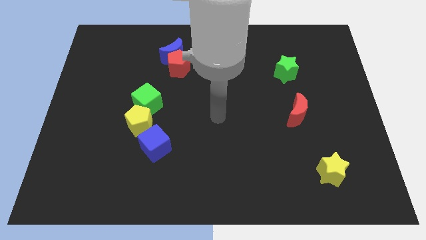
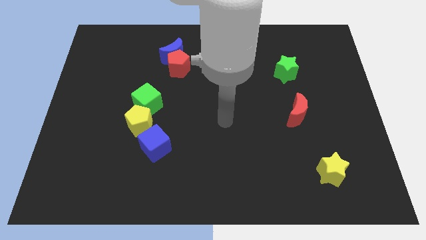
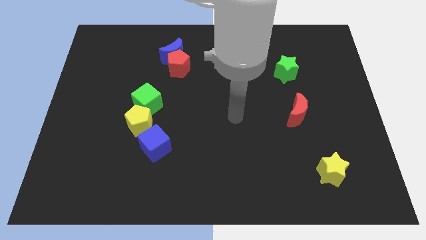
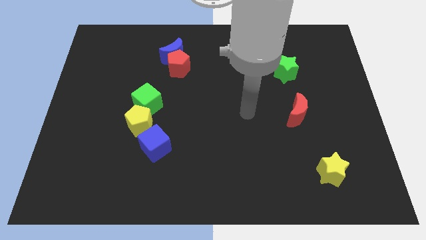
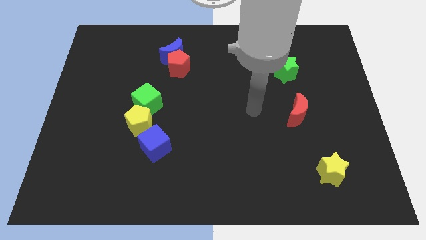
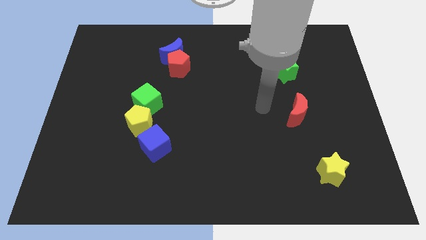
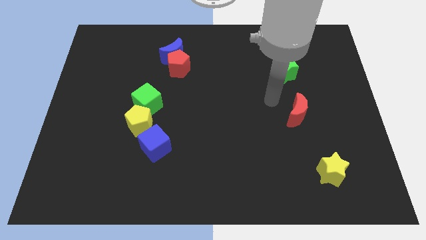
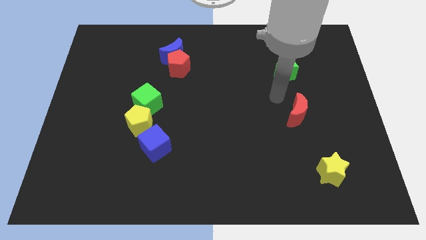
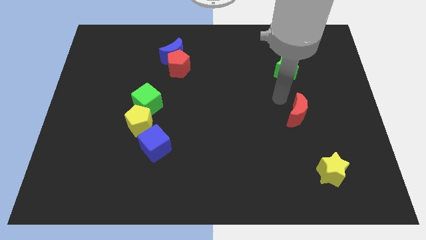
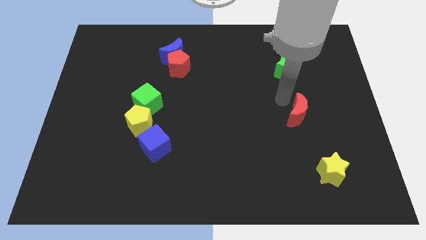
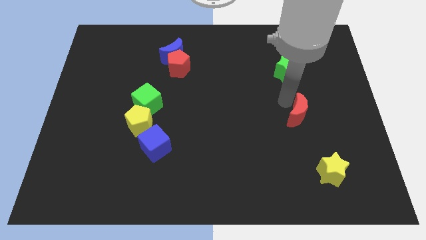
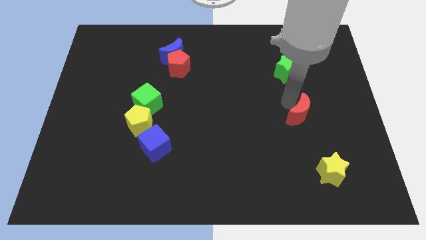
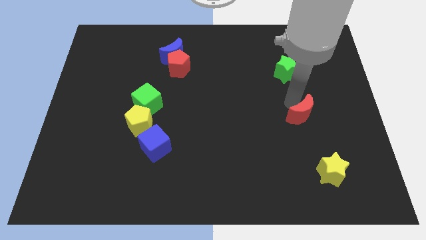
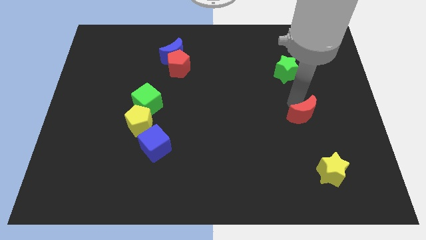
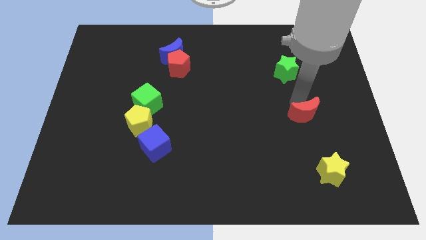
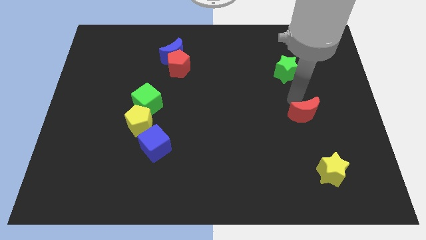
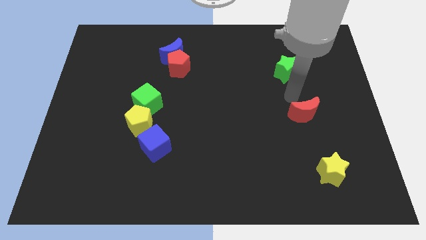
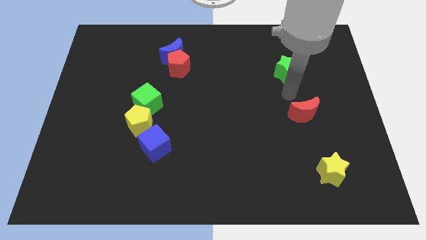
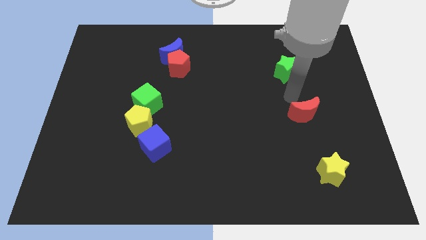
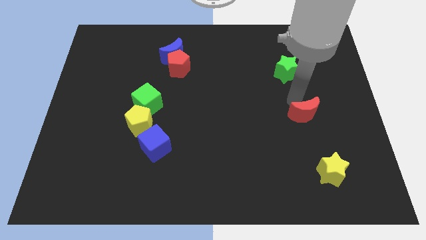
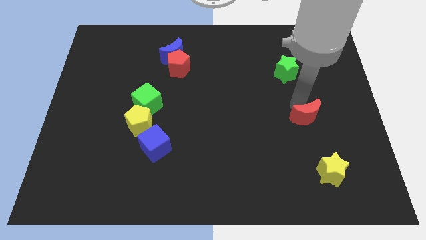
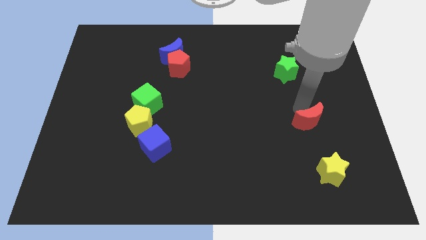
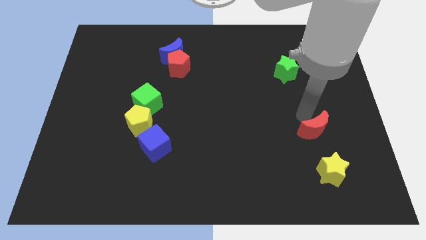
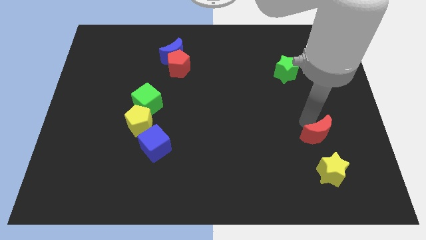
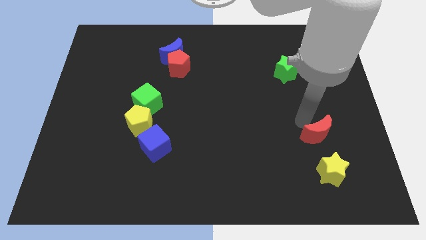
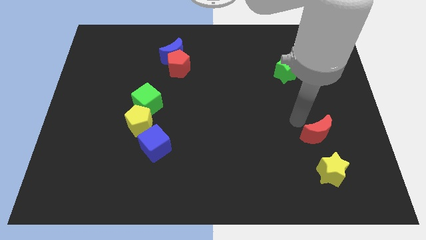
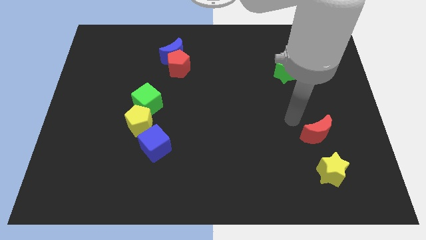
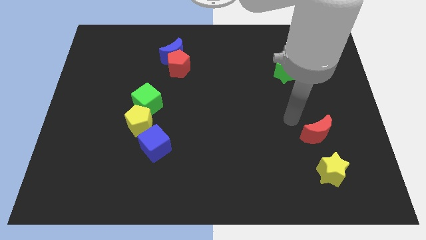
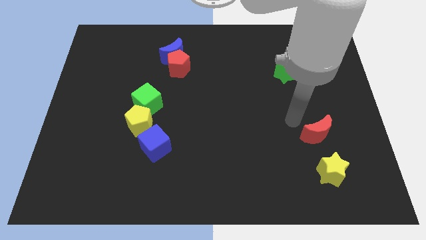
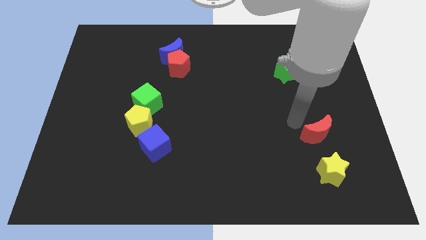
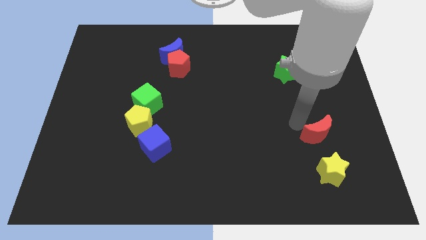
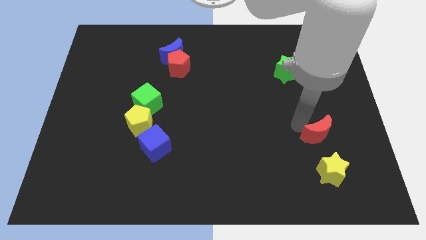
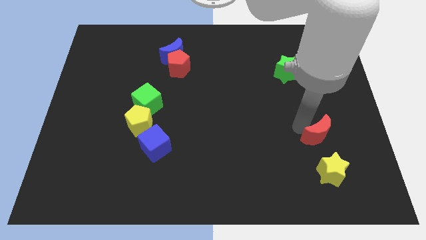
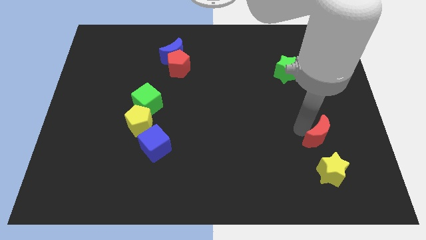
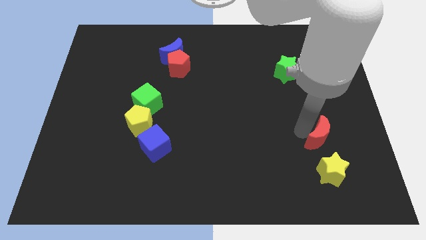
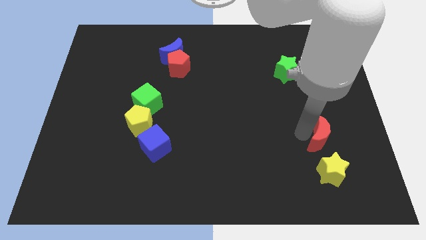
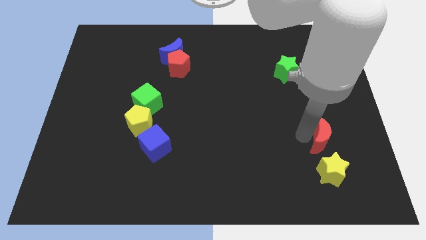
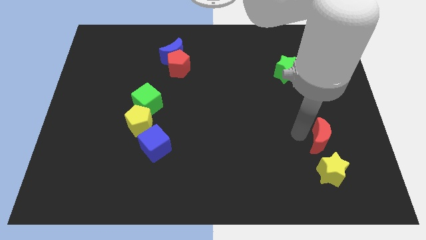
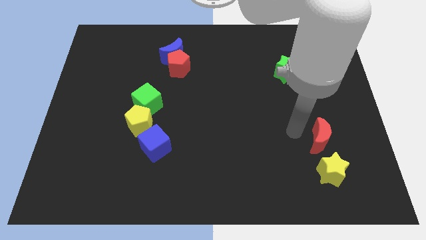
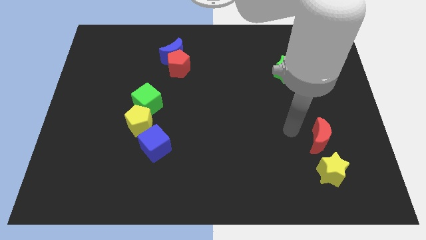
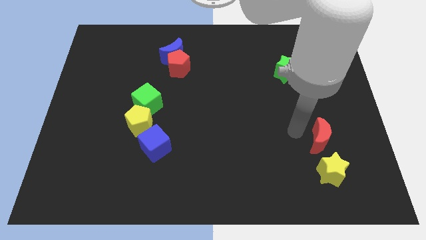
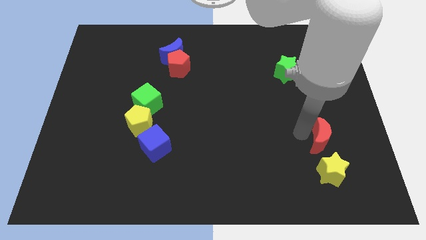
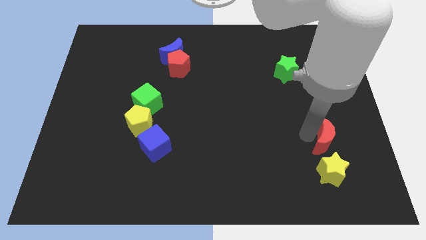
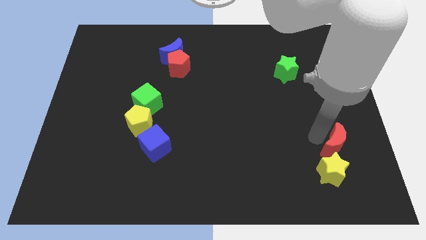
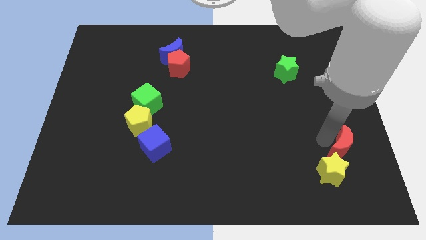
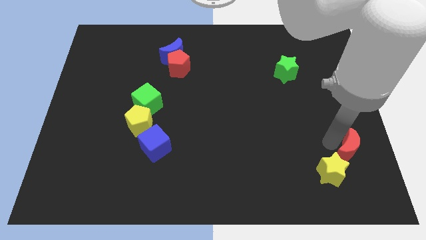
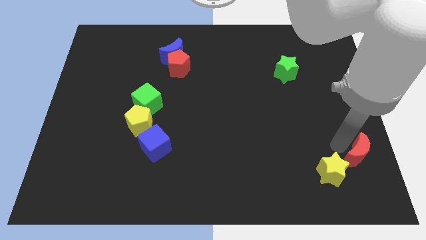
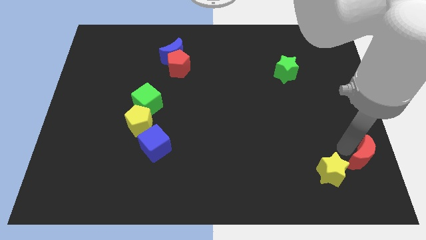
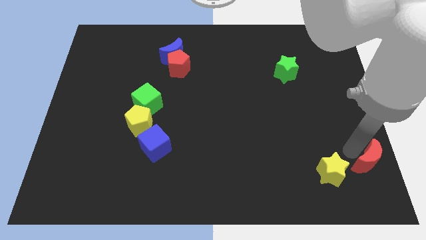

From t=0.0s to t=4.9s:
move the red moon to the bottom right

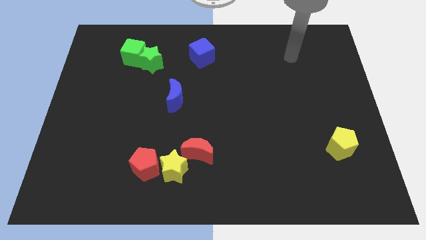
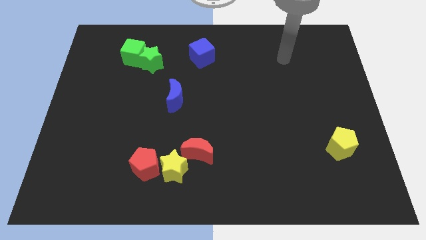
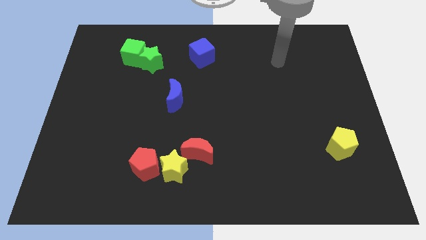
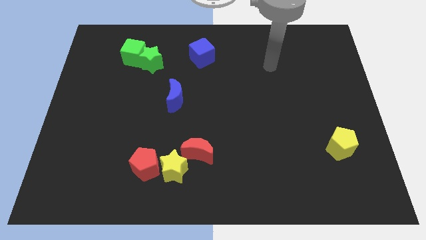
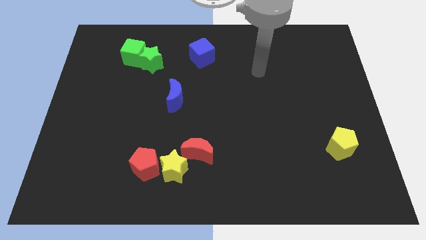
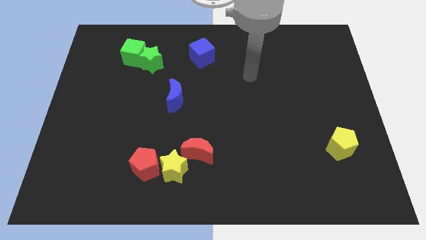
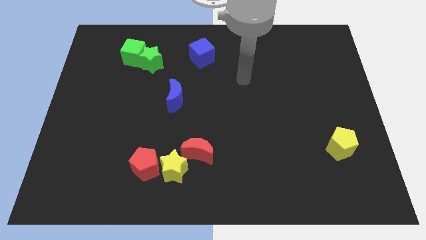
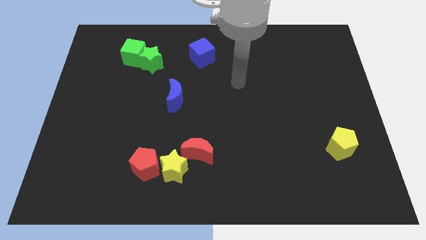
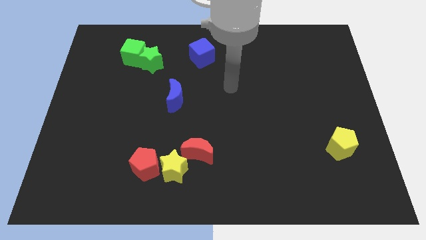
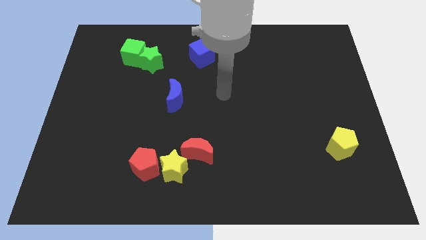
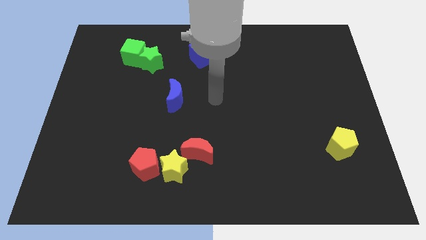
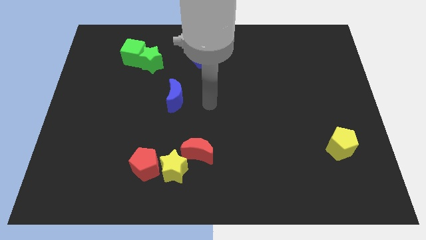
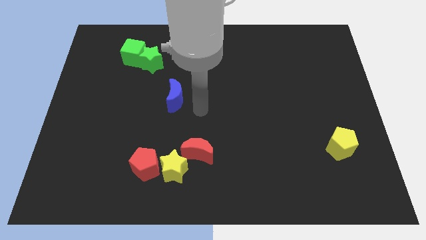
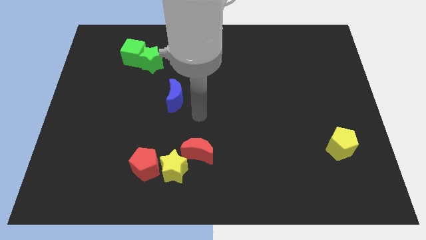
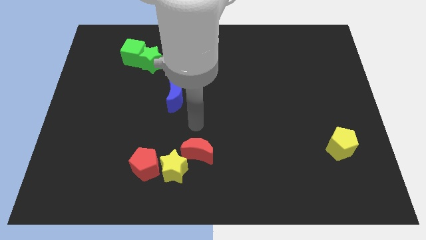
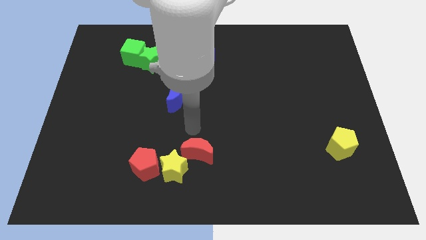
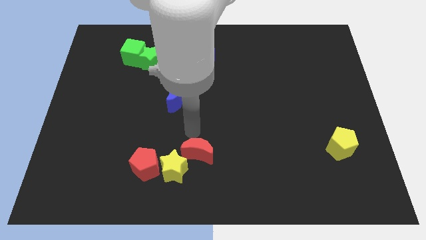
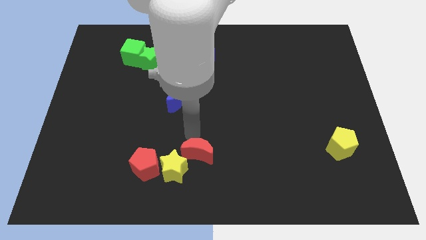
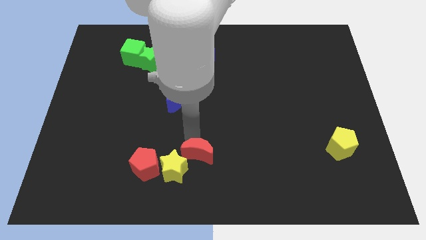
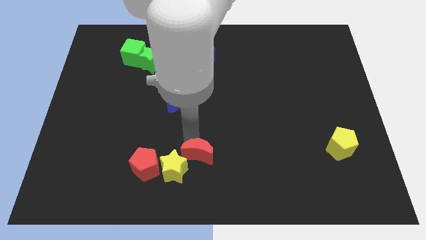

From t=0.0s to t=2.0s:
move the red moon to the bottom side
